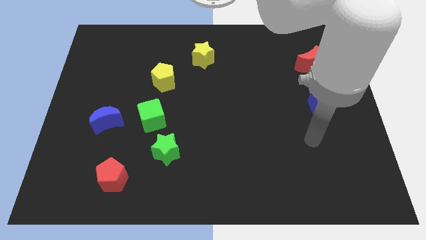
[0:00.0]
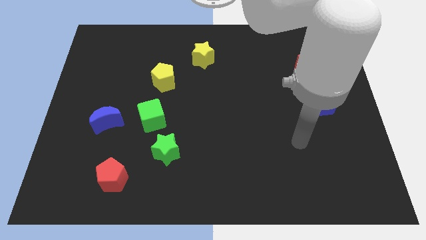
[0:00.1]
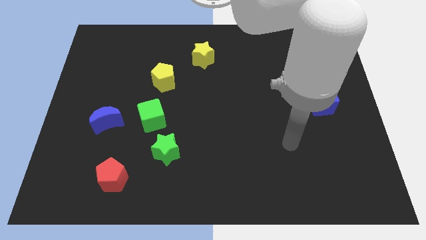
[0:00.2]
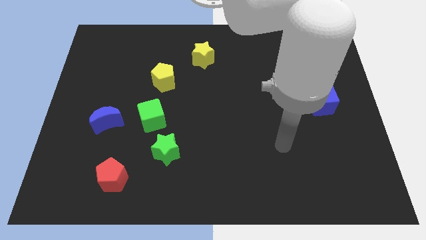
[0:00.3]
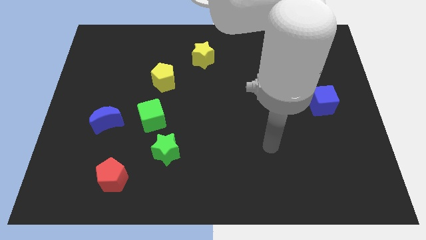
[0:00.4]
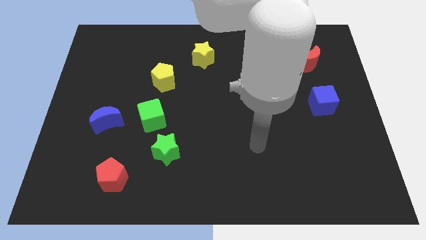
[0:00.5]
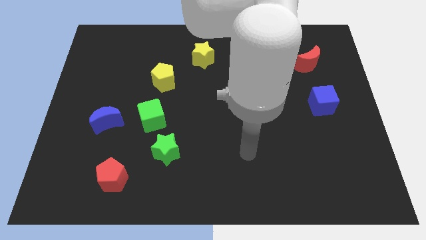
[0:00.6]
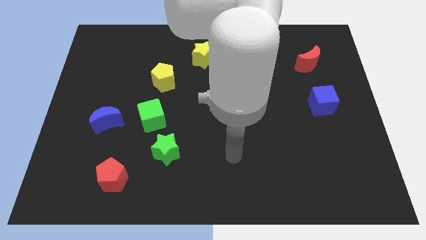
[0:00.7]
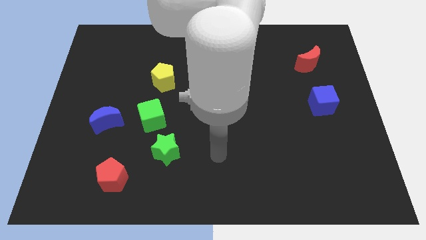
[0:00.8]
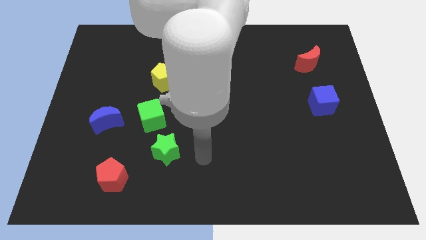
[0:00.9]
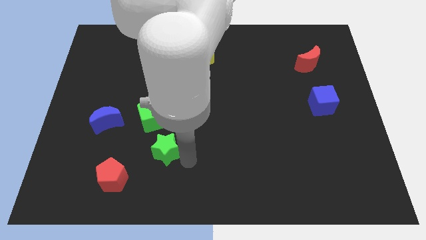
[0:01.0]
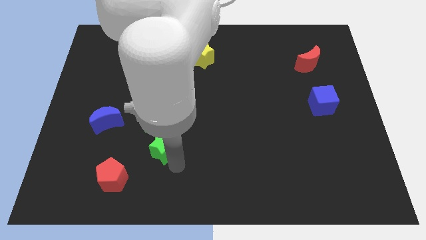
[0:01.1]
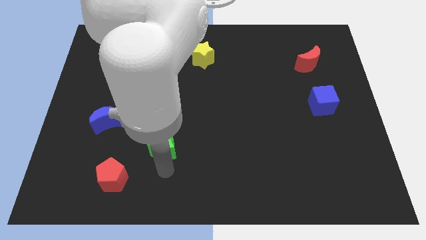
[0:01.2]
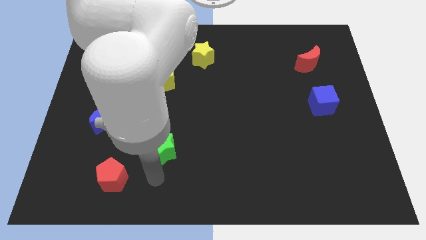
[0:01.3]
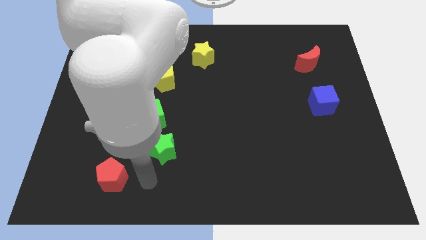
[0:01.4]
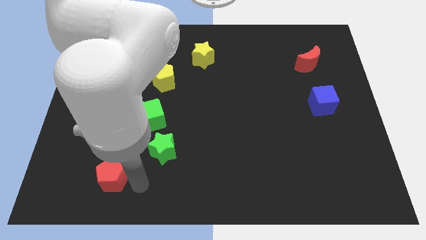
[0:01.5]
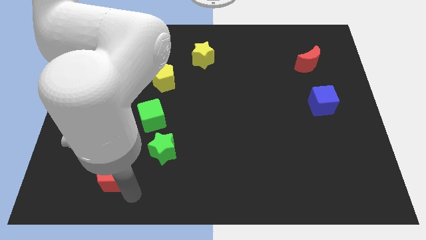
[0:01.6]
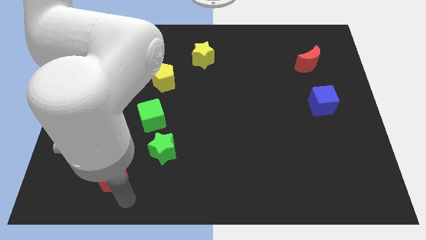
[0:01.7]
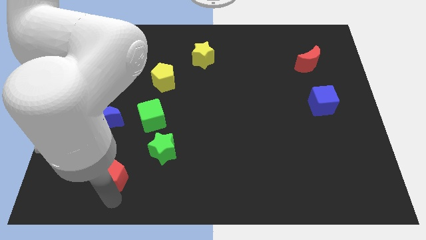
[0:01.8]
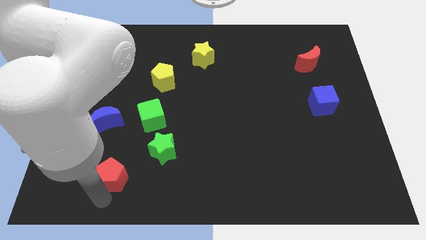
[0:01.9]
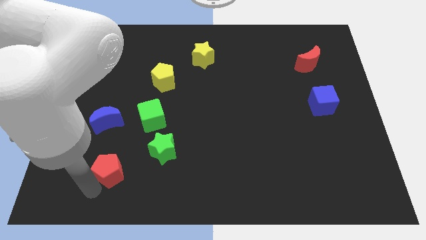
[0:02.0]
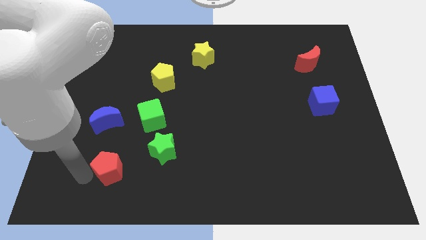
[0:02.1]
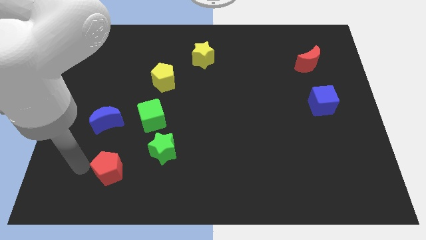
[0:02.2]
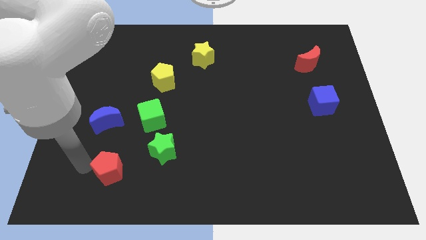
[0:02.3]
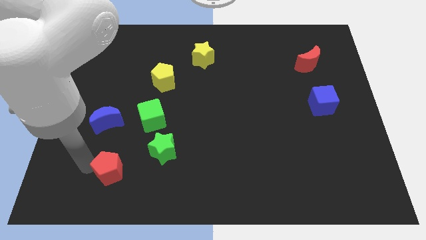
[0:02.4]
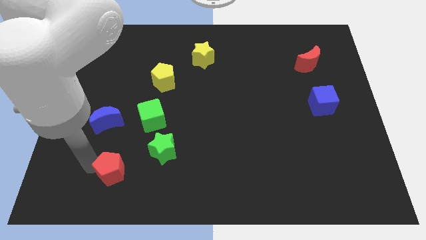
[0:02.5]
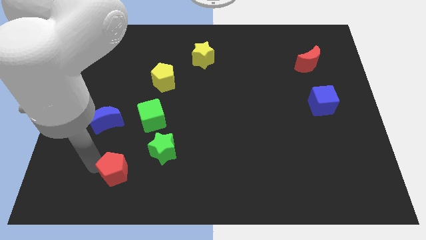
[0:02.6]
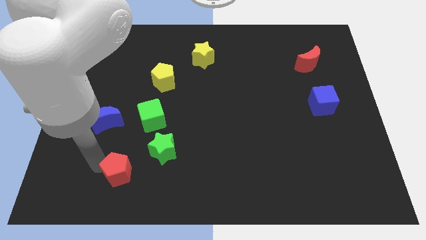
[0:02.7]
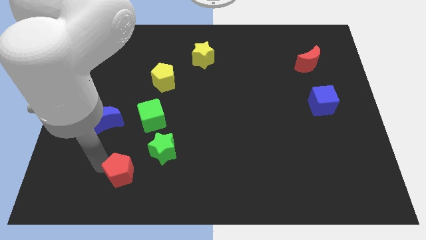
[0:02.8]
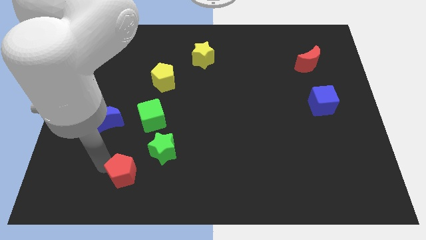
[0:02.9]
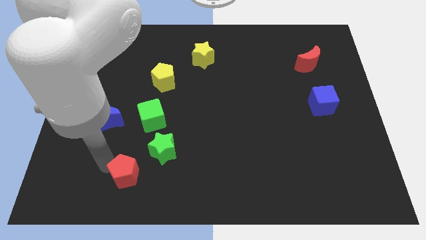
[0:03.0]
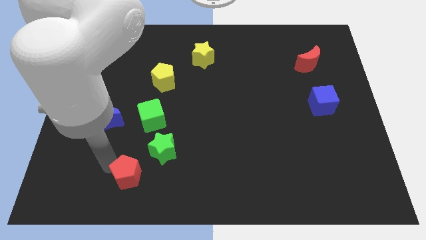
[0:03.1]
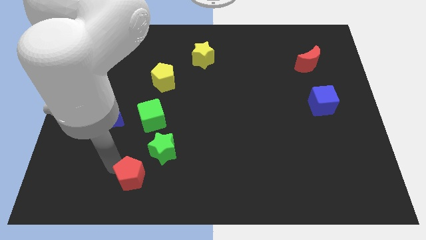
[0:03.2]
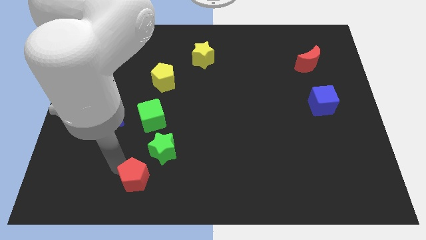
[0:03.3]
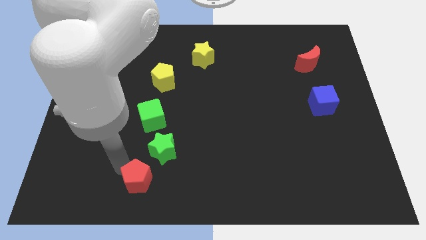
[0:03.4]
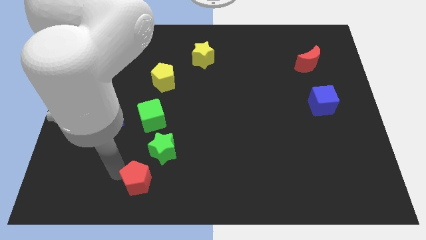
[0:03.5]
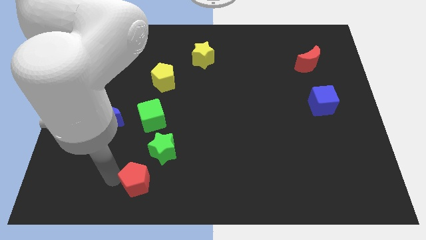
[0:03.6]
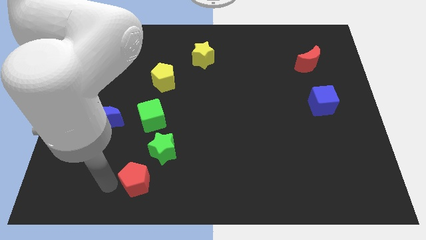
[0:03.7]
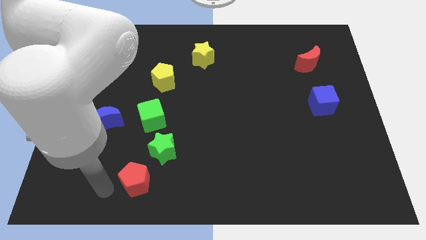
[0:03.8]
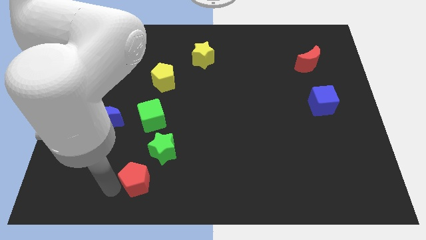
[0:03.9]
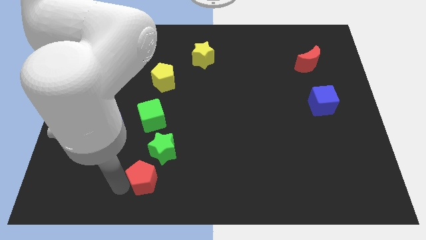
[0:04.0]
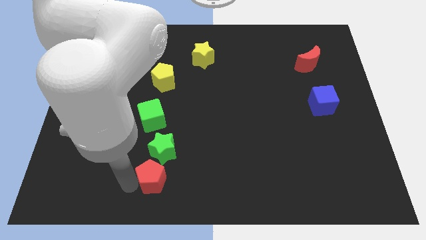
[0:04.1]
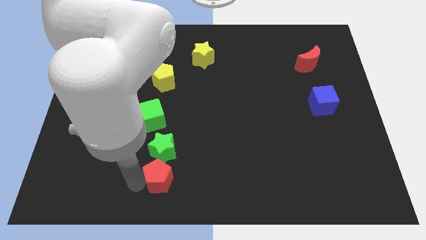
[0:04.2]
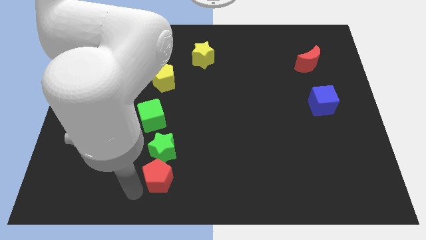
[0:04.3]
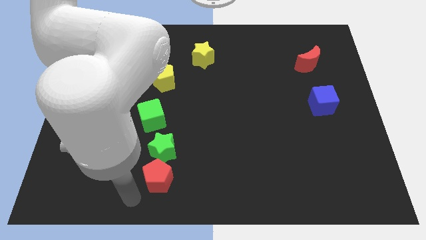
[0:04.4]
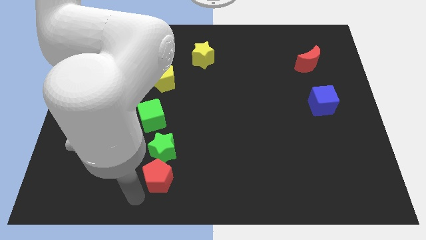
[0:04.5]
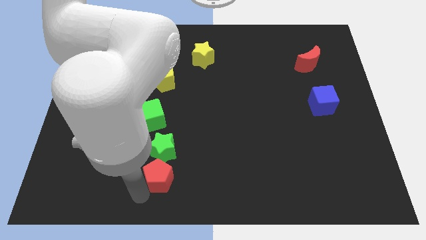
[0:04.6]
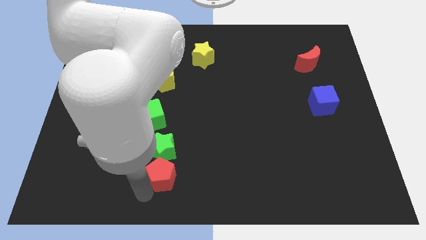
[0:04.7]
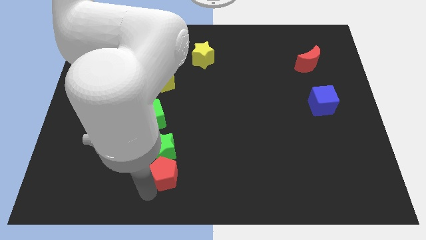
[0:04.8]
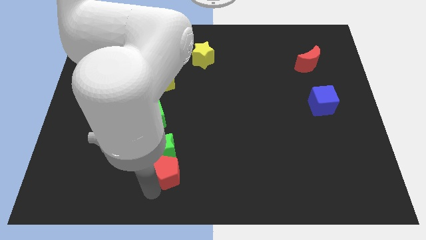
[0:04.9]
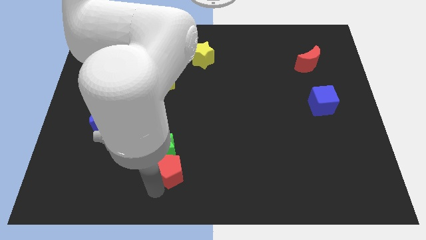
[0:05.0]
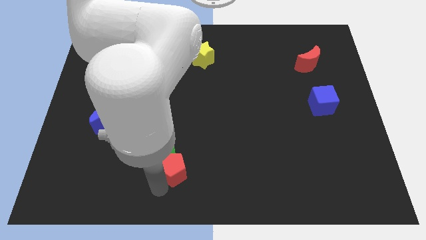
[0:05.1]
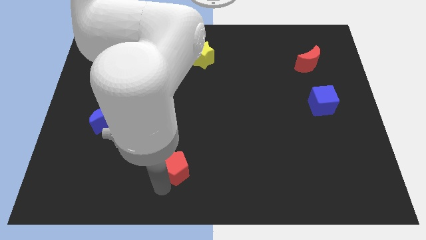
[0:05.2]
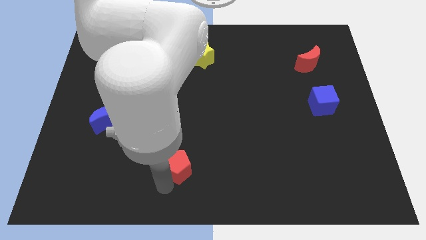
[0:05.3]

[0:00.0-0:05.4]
move the red pentagon right of the green star

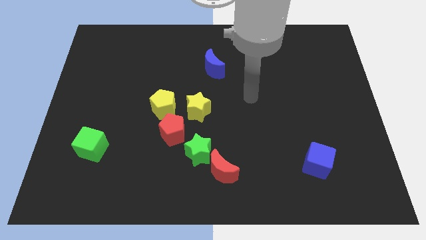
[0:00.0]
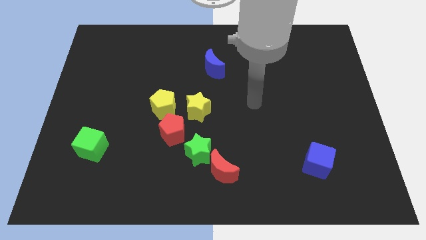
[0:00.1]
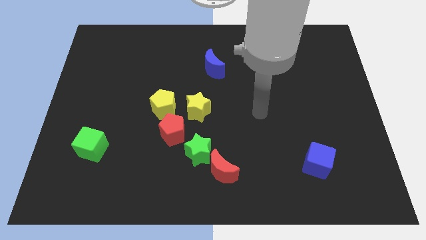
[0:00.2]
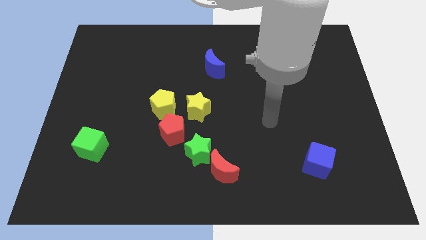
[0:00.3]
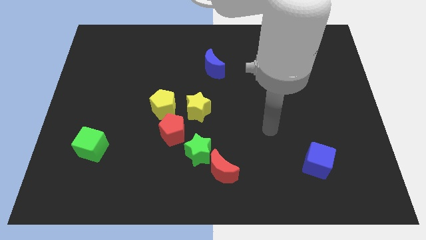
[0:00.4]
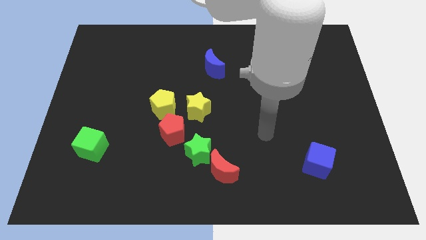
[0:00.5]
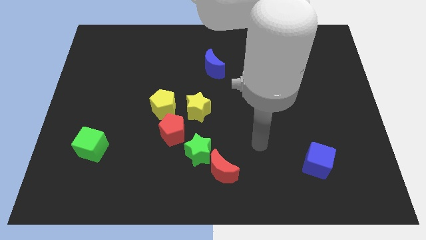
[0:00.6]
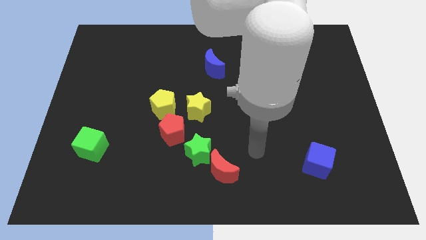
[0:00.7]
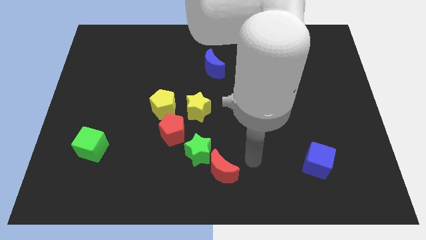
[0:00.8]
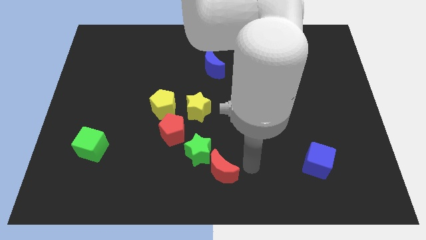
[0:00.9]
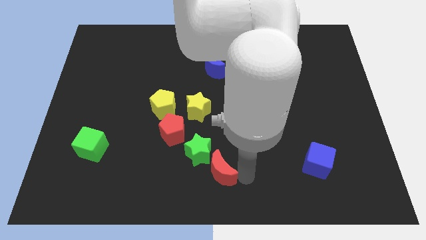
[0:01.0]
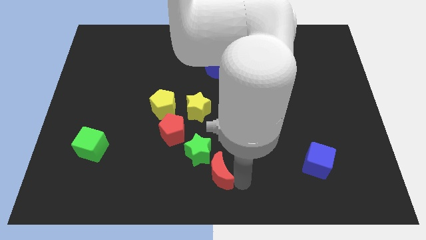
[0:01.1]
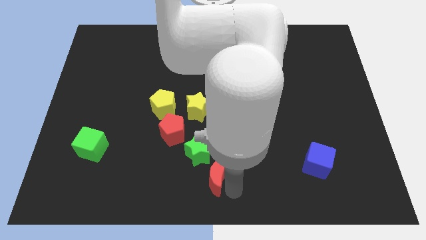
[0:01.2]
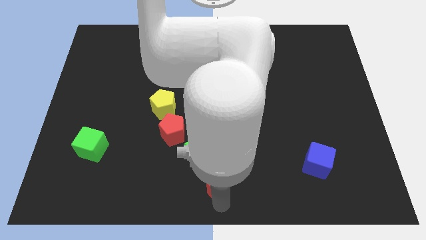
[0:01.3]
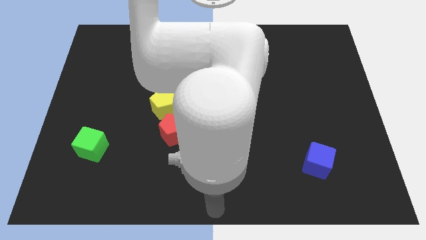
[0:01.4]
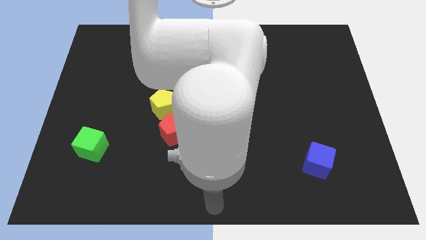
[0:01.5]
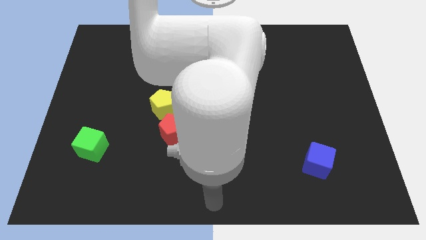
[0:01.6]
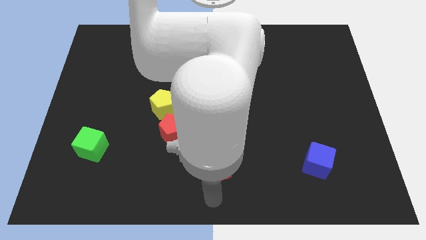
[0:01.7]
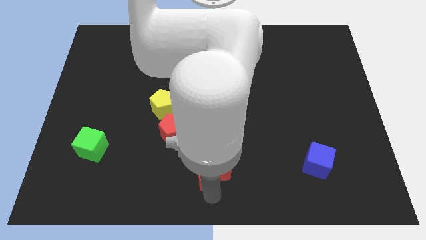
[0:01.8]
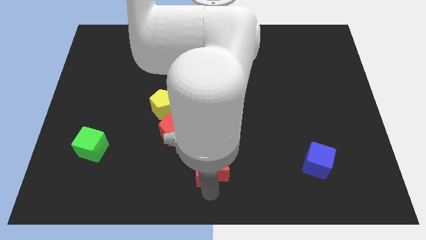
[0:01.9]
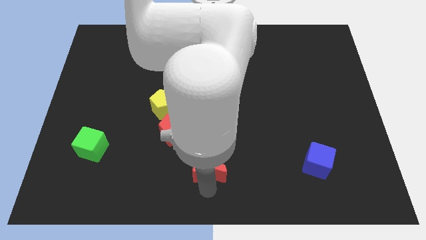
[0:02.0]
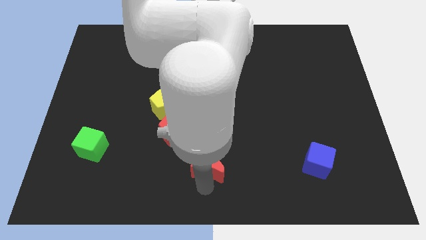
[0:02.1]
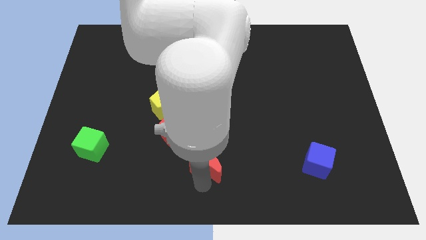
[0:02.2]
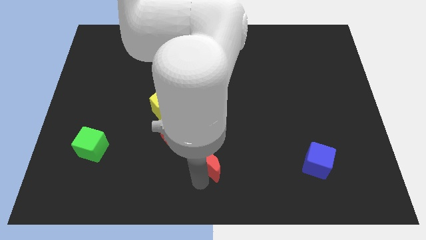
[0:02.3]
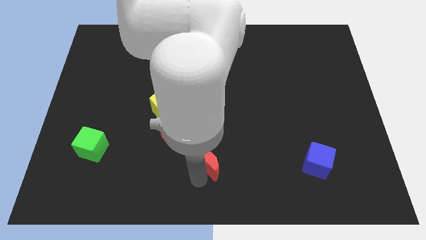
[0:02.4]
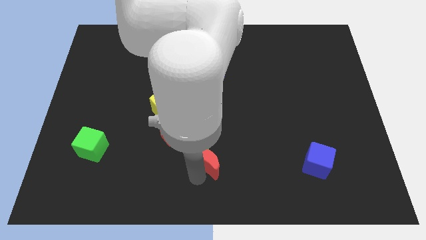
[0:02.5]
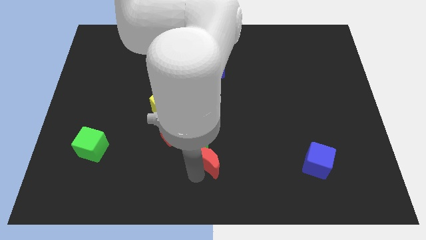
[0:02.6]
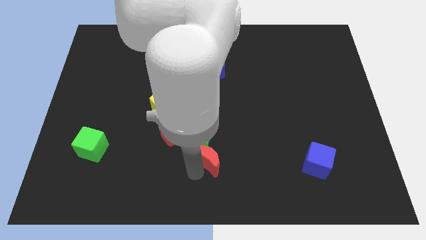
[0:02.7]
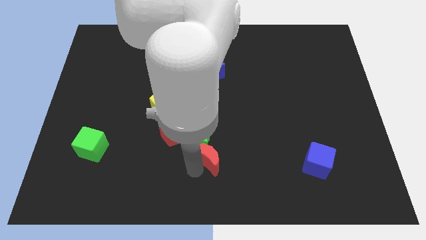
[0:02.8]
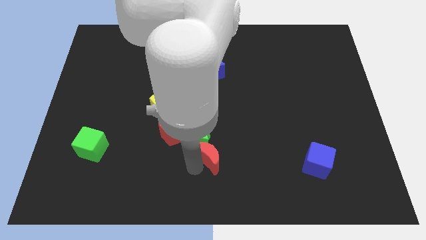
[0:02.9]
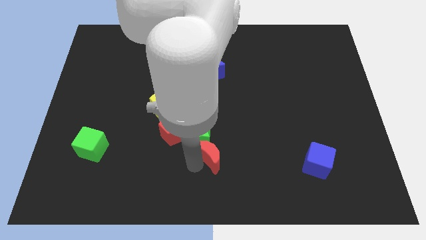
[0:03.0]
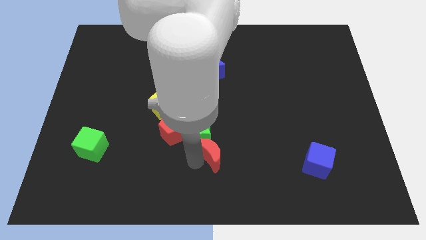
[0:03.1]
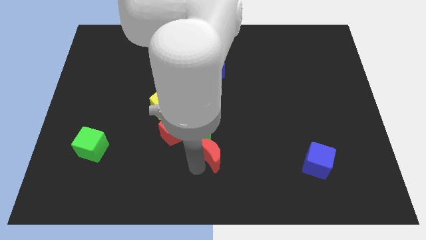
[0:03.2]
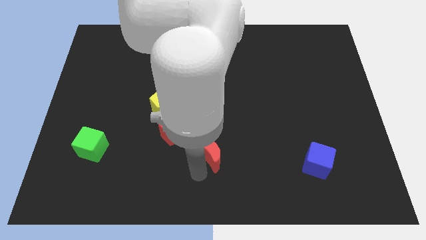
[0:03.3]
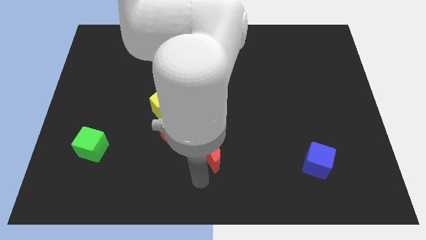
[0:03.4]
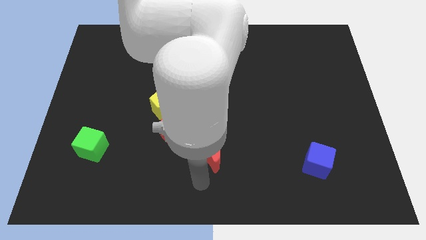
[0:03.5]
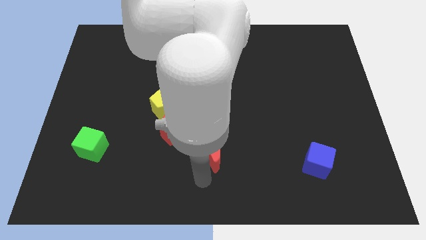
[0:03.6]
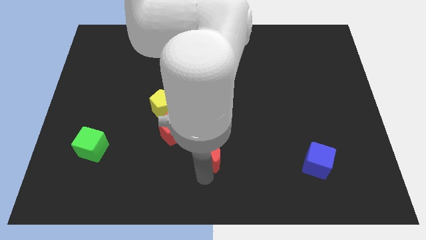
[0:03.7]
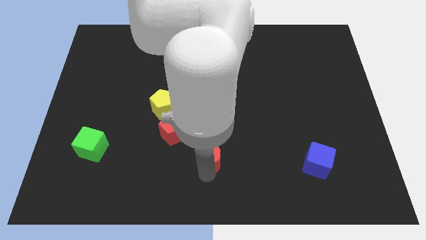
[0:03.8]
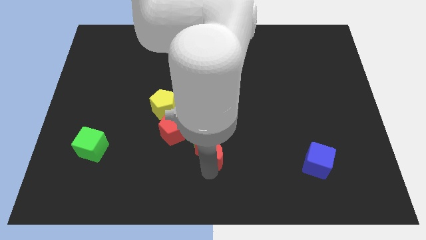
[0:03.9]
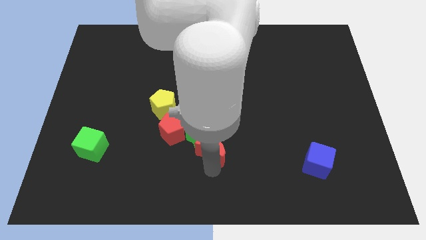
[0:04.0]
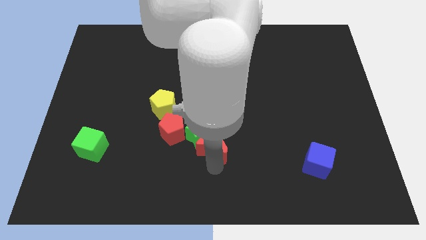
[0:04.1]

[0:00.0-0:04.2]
push the red moon just right of the red pentagon
